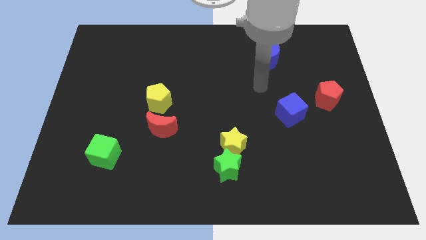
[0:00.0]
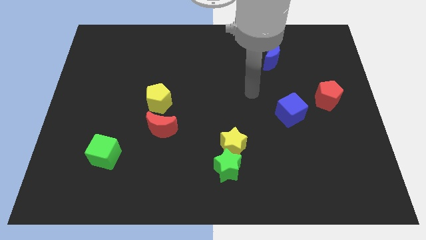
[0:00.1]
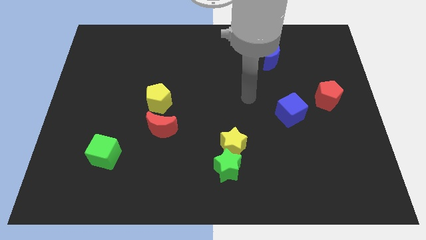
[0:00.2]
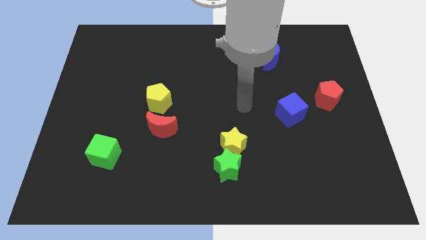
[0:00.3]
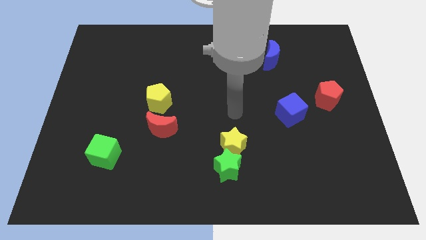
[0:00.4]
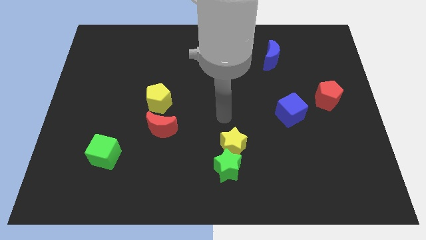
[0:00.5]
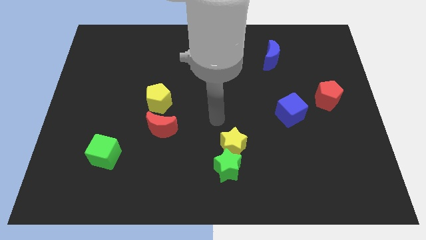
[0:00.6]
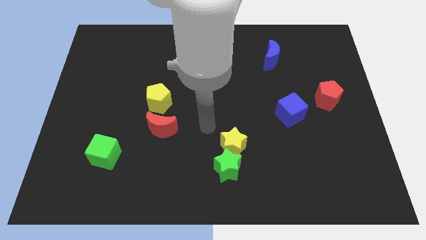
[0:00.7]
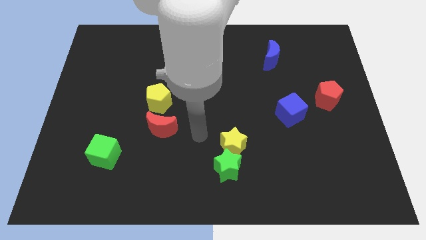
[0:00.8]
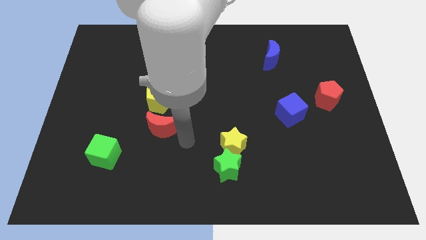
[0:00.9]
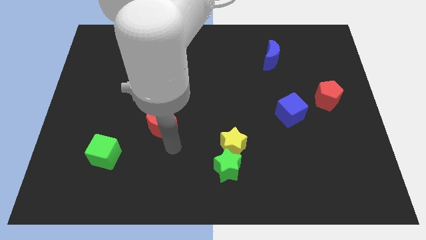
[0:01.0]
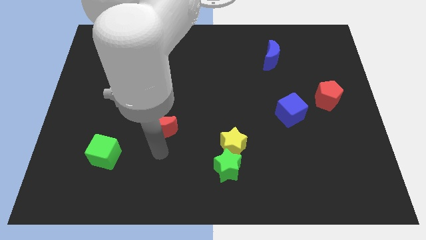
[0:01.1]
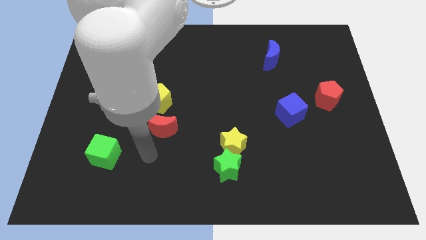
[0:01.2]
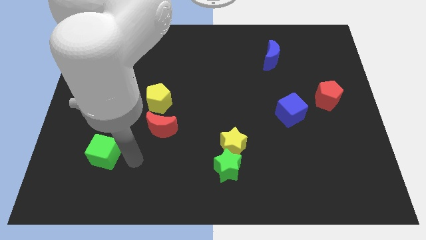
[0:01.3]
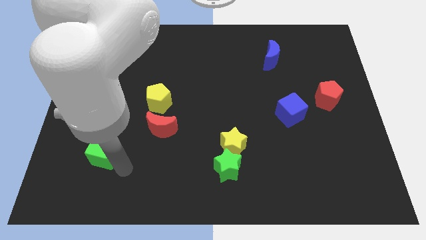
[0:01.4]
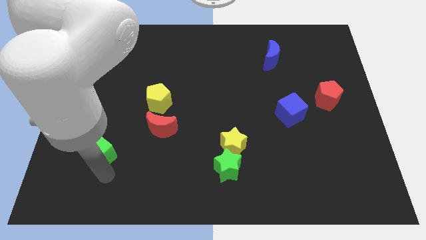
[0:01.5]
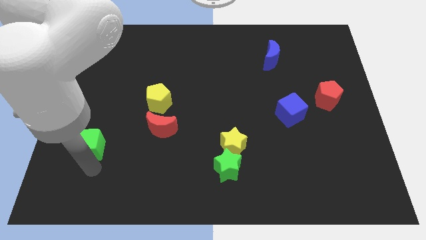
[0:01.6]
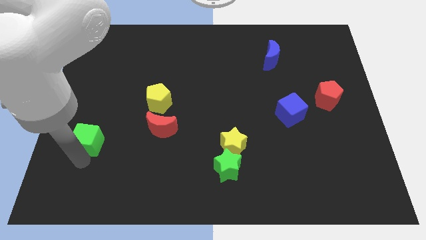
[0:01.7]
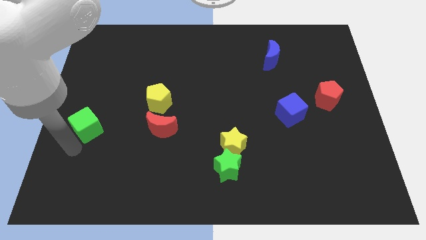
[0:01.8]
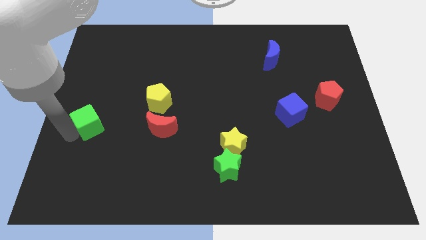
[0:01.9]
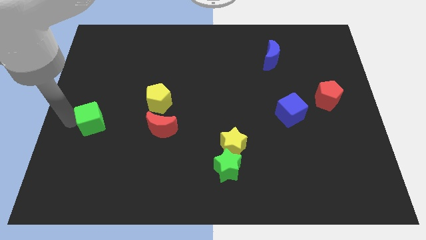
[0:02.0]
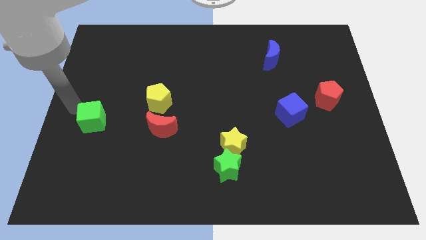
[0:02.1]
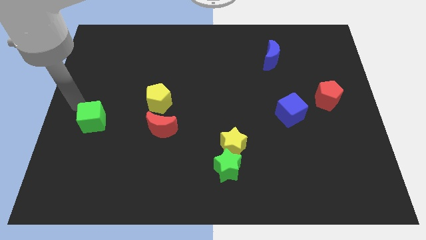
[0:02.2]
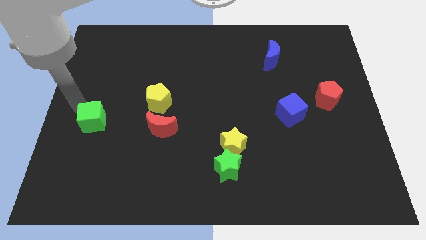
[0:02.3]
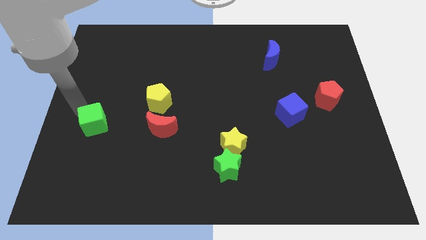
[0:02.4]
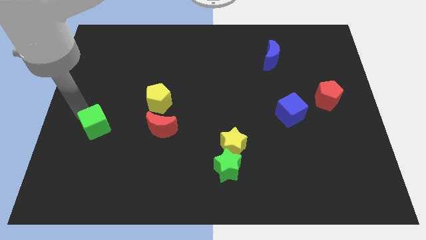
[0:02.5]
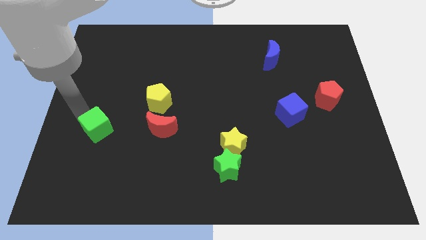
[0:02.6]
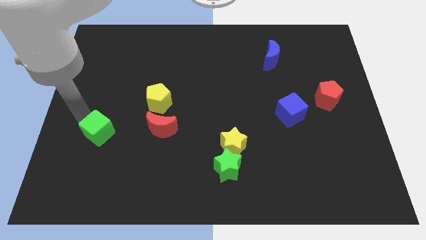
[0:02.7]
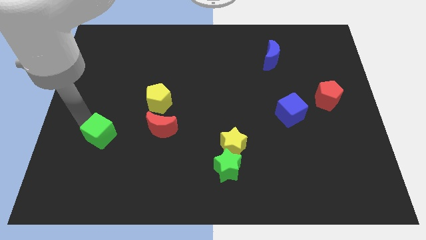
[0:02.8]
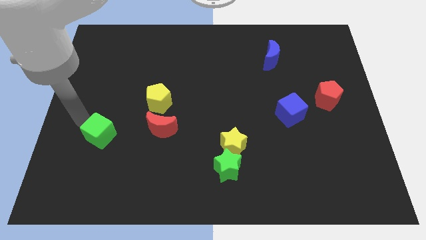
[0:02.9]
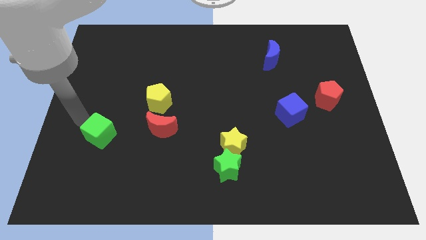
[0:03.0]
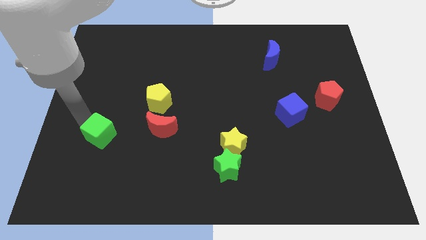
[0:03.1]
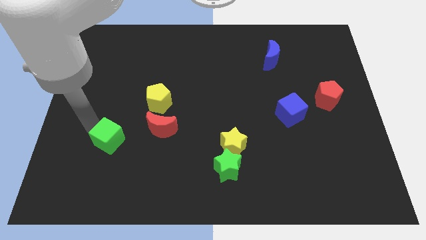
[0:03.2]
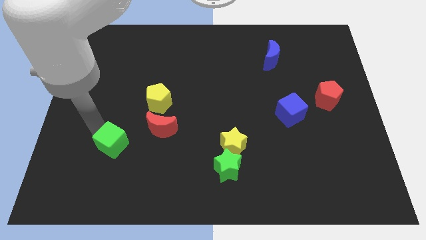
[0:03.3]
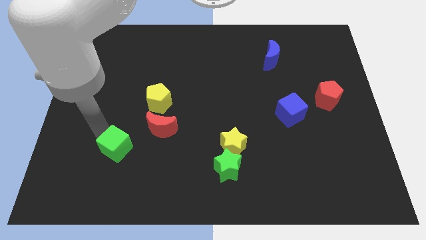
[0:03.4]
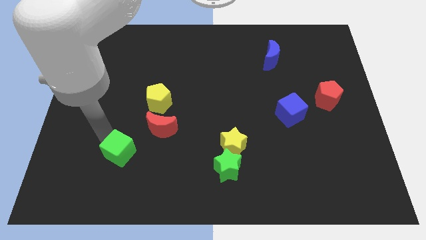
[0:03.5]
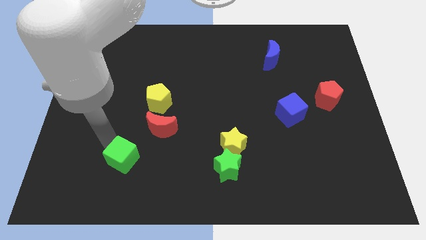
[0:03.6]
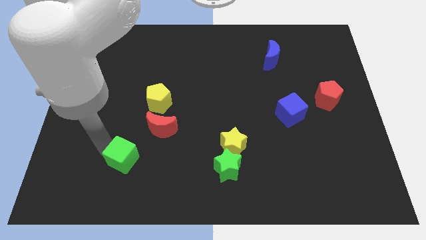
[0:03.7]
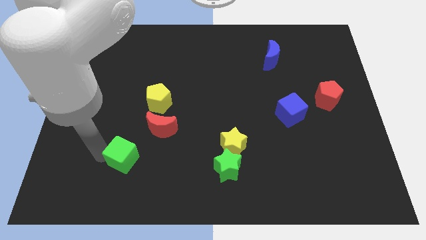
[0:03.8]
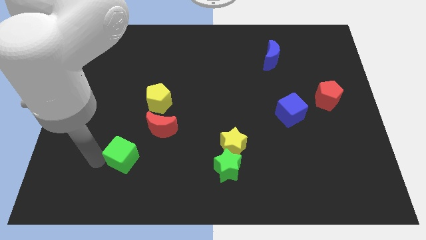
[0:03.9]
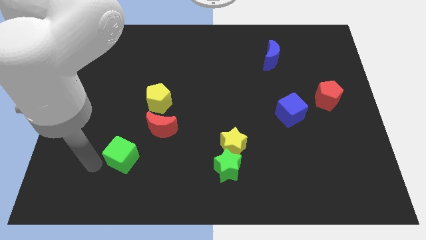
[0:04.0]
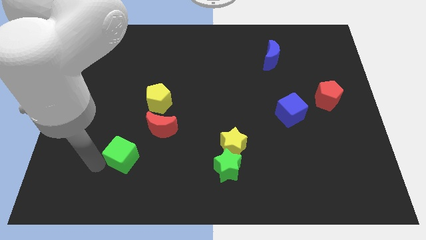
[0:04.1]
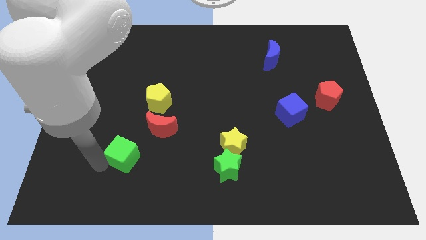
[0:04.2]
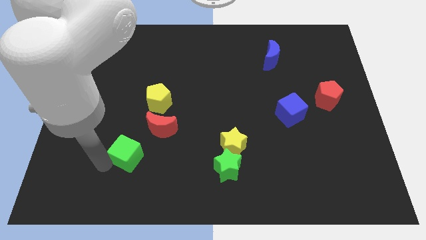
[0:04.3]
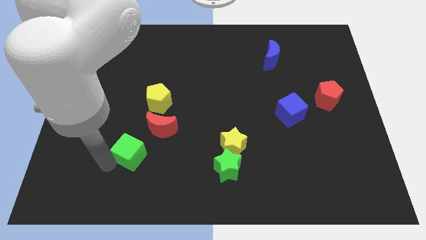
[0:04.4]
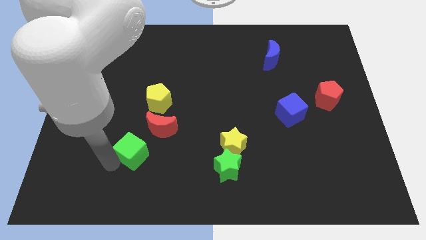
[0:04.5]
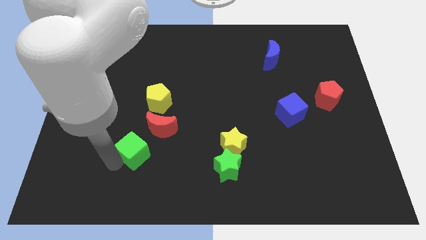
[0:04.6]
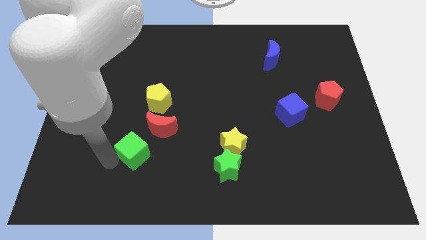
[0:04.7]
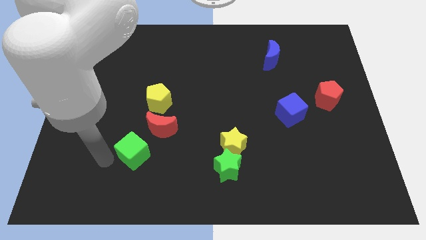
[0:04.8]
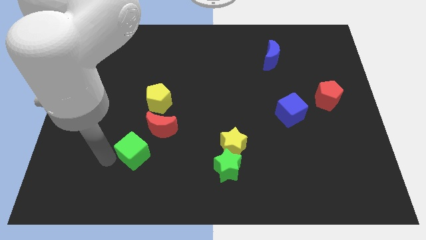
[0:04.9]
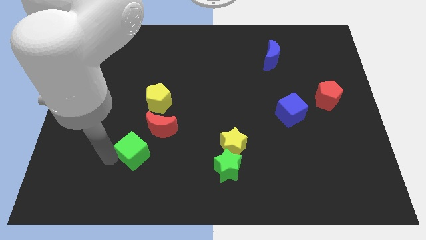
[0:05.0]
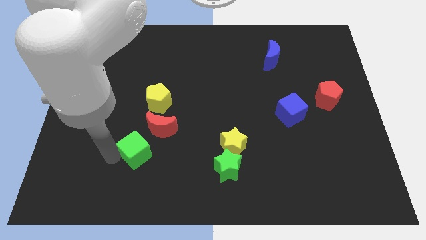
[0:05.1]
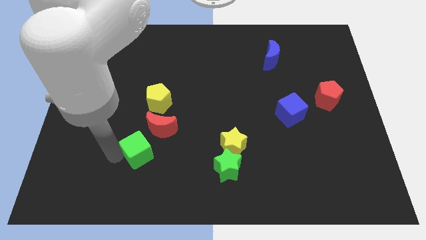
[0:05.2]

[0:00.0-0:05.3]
slide the green cube a little right

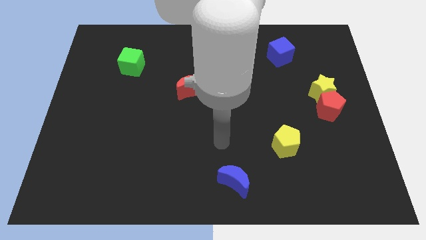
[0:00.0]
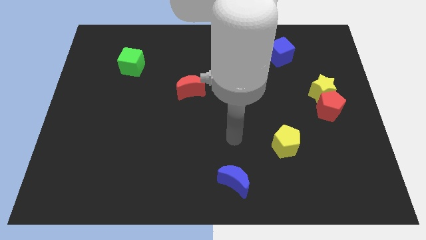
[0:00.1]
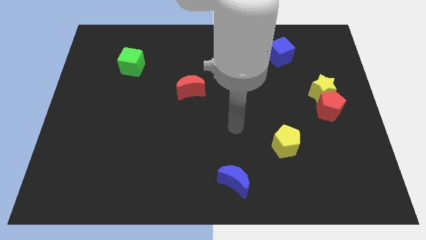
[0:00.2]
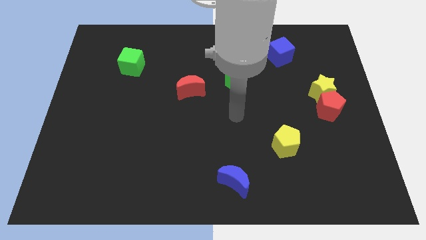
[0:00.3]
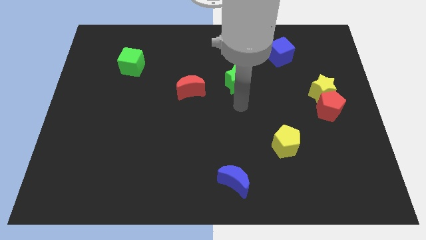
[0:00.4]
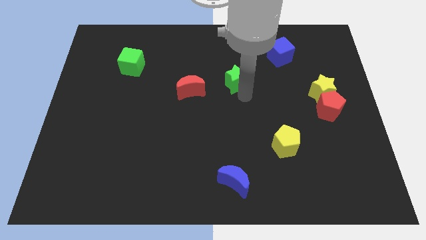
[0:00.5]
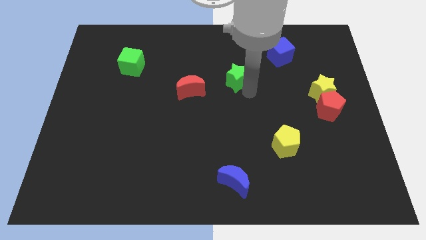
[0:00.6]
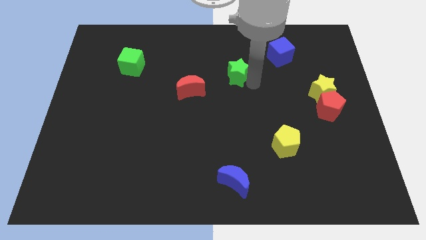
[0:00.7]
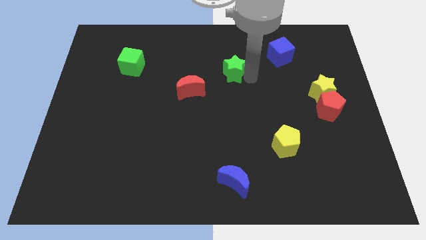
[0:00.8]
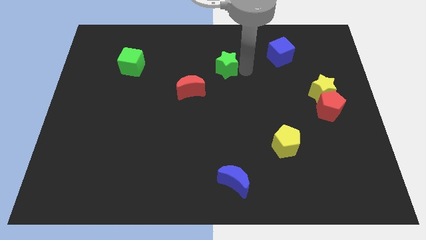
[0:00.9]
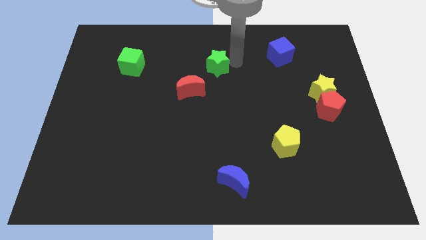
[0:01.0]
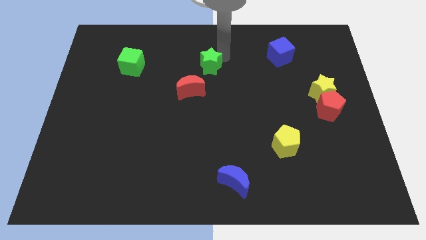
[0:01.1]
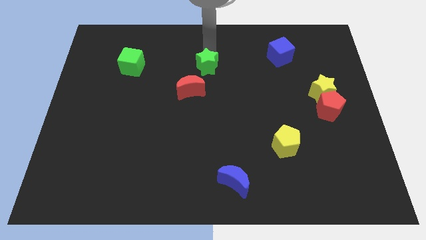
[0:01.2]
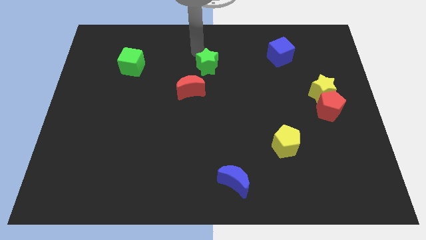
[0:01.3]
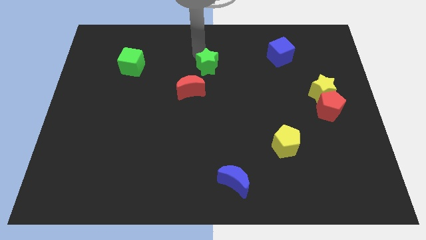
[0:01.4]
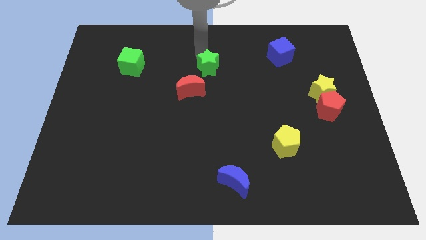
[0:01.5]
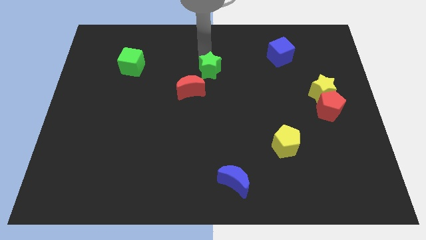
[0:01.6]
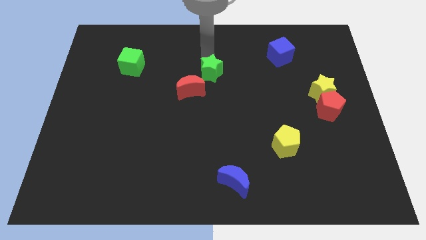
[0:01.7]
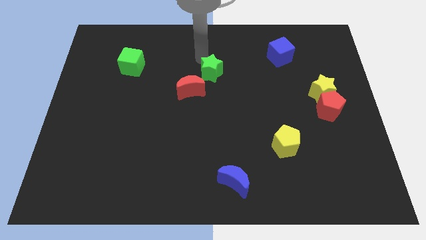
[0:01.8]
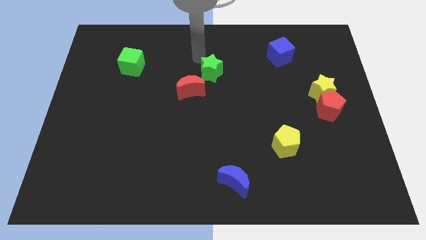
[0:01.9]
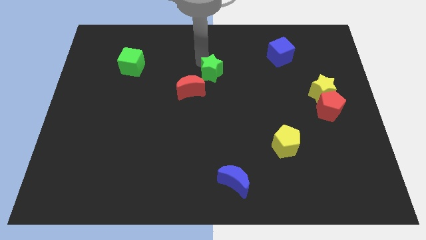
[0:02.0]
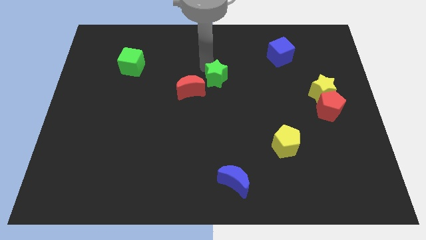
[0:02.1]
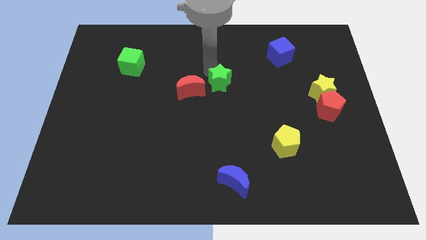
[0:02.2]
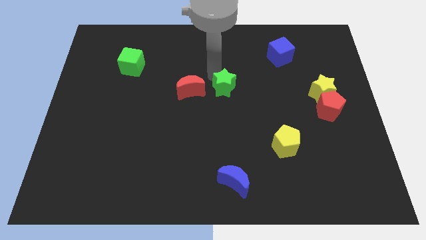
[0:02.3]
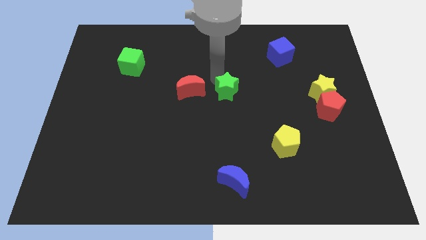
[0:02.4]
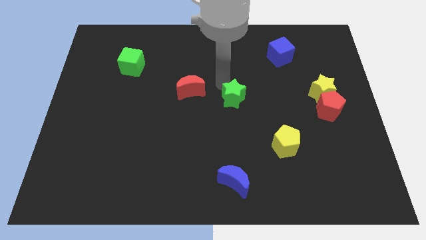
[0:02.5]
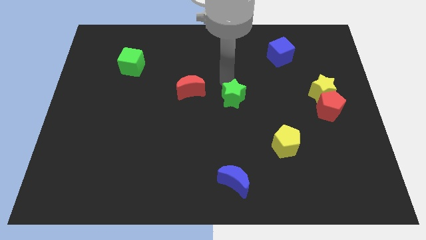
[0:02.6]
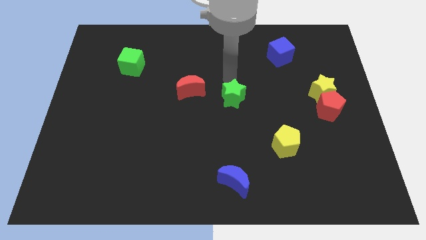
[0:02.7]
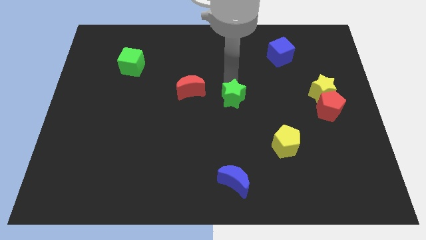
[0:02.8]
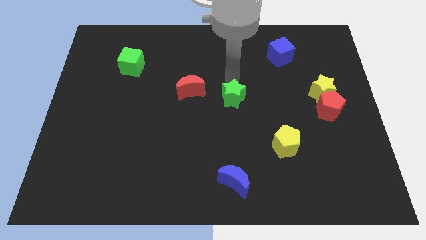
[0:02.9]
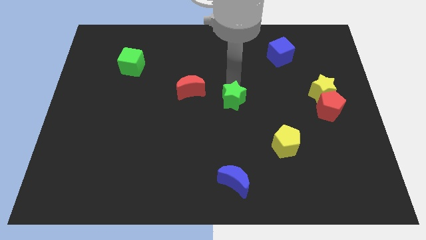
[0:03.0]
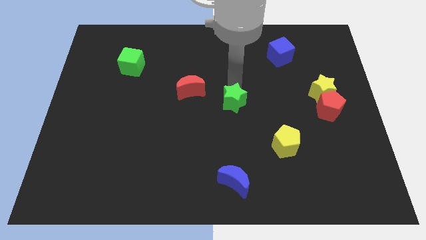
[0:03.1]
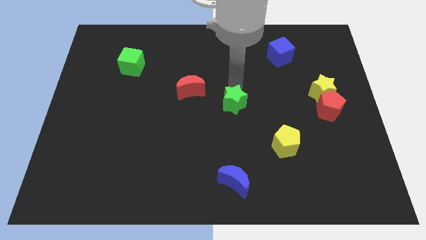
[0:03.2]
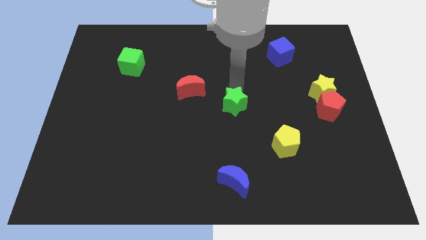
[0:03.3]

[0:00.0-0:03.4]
slightly push the green star down
